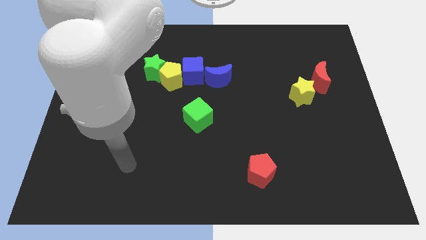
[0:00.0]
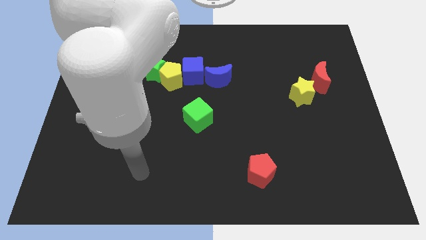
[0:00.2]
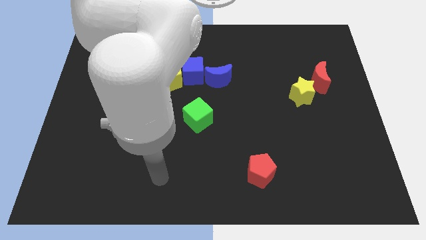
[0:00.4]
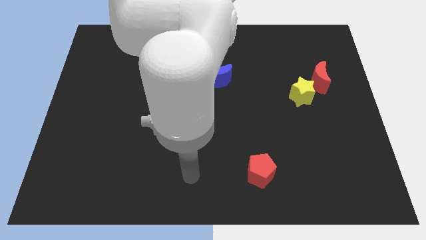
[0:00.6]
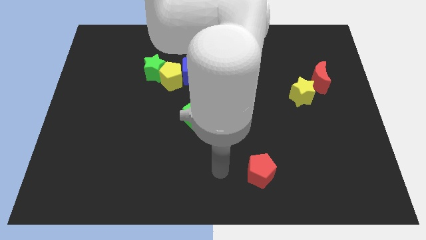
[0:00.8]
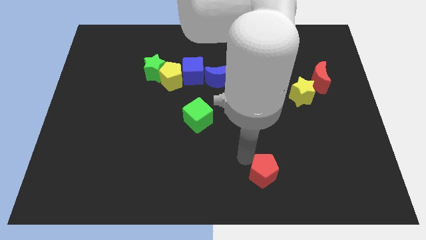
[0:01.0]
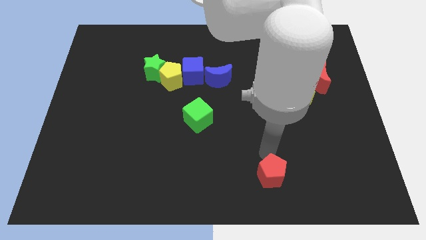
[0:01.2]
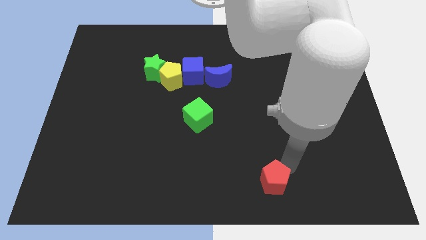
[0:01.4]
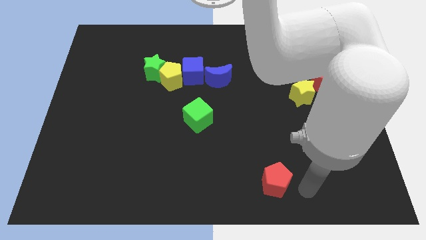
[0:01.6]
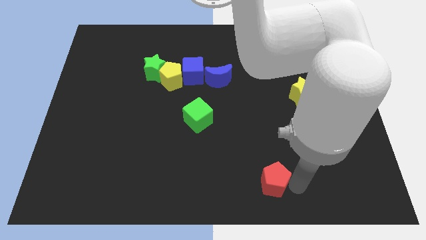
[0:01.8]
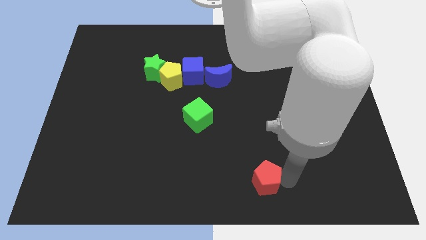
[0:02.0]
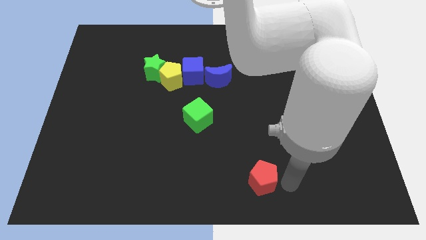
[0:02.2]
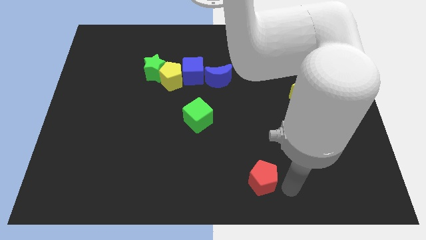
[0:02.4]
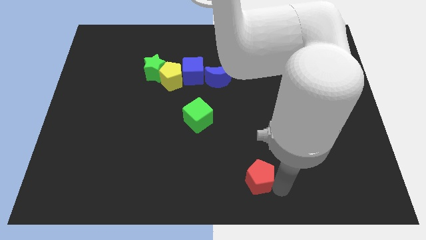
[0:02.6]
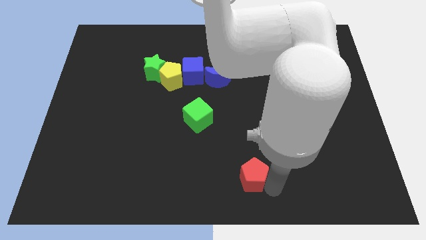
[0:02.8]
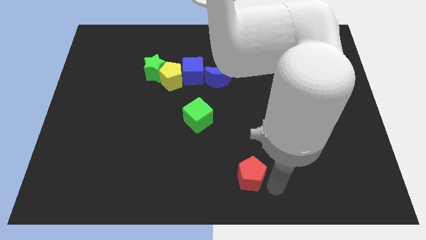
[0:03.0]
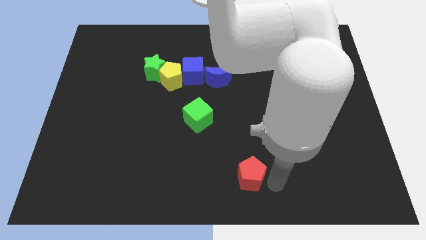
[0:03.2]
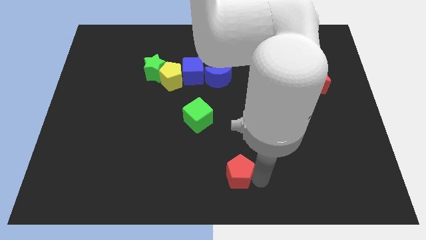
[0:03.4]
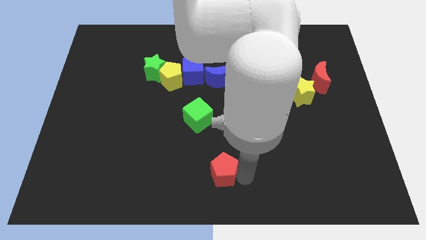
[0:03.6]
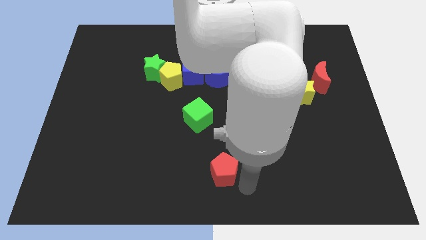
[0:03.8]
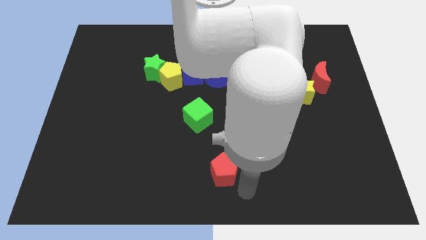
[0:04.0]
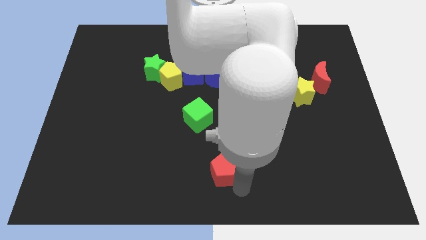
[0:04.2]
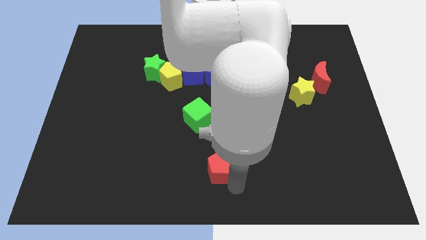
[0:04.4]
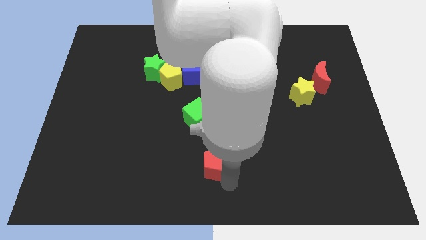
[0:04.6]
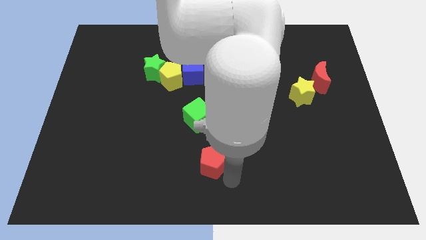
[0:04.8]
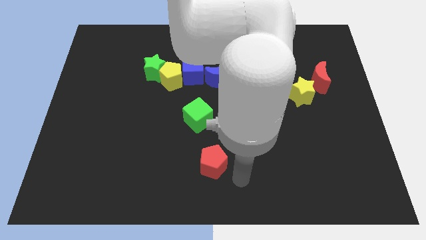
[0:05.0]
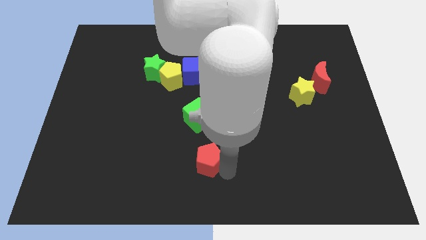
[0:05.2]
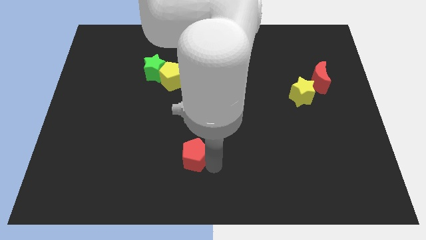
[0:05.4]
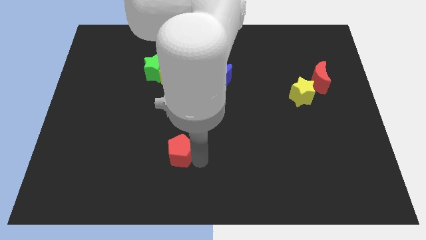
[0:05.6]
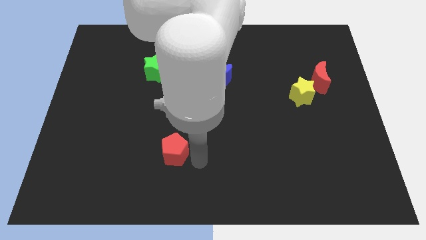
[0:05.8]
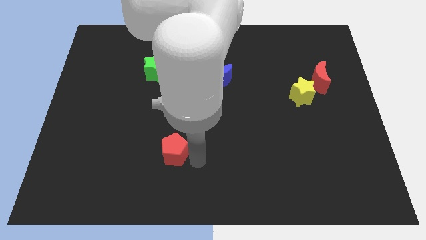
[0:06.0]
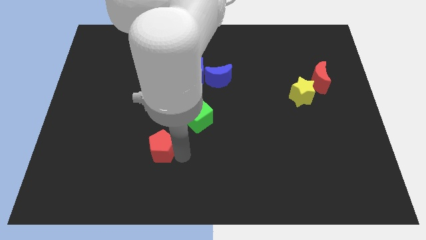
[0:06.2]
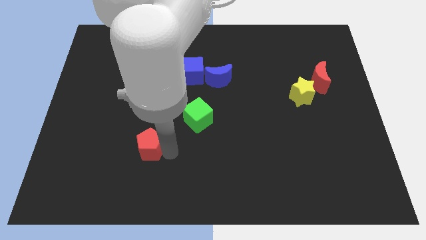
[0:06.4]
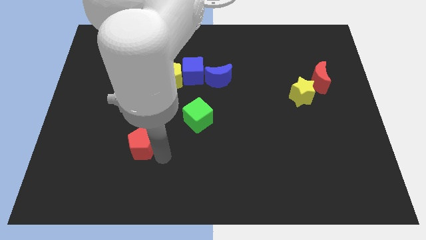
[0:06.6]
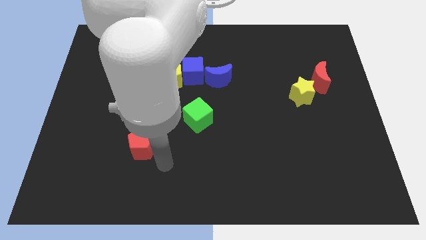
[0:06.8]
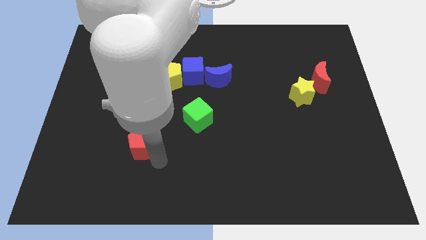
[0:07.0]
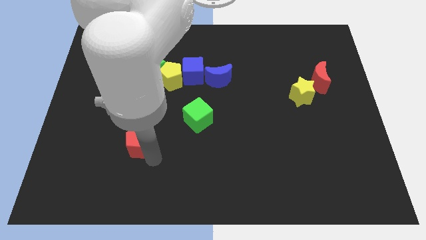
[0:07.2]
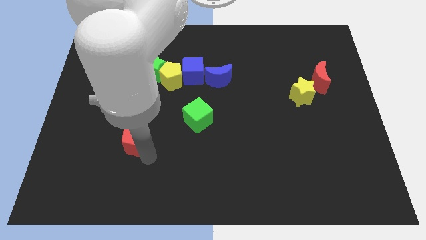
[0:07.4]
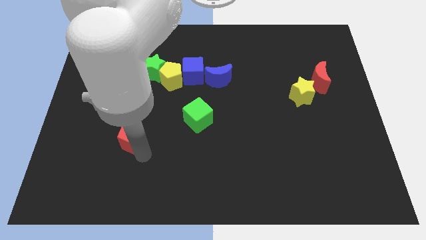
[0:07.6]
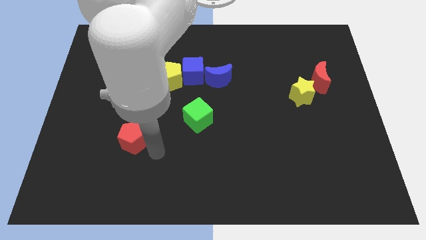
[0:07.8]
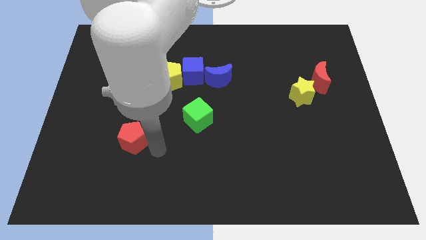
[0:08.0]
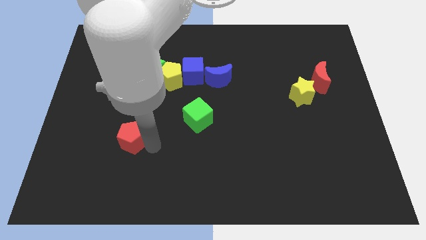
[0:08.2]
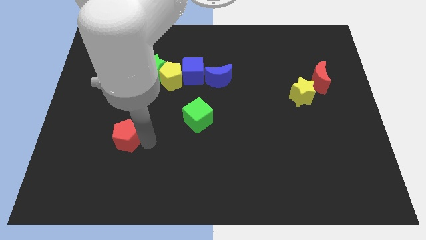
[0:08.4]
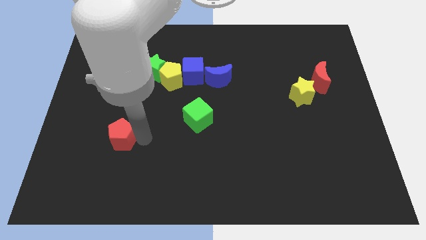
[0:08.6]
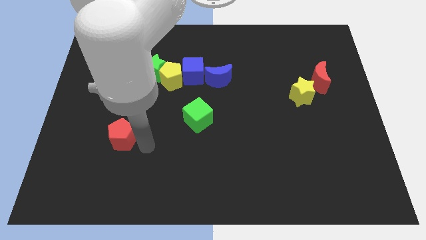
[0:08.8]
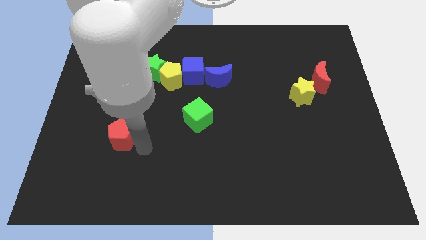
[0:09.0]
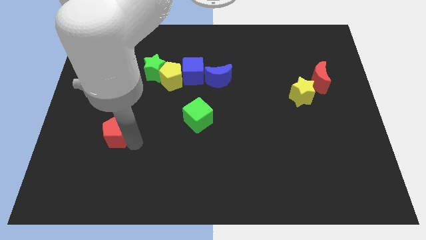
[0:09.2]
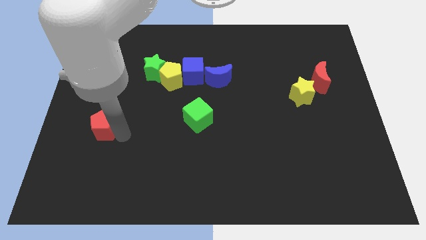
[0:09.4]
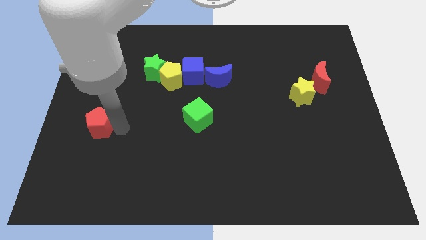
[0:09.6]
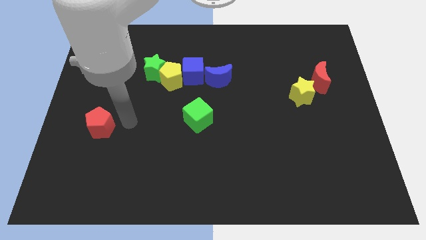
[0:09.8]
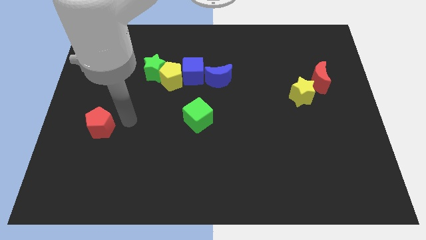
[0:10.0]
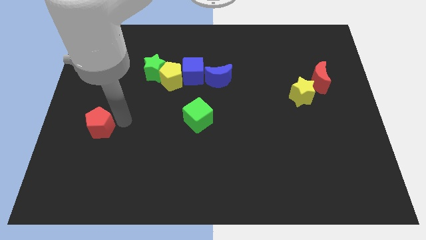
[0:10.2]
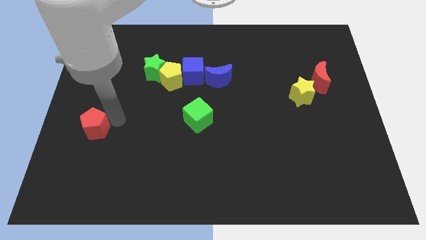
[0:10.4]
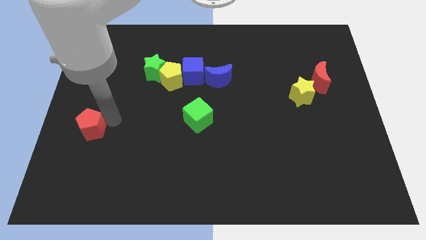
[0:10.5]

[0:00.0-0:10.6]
slide the red pentagon to the center left

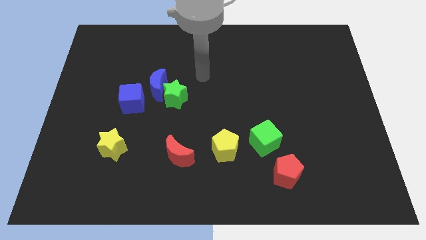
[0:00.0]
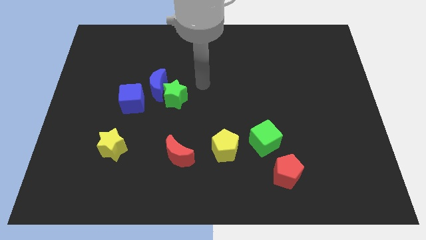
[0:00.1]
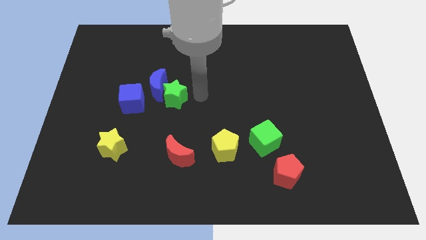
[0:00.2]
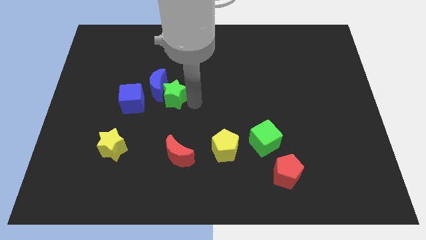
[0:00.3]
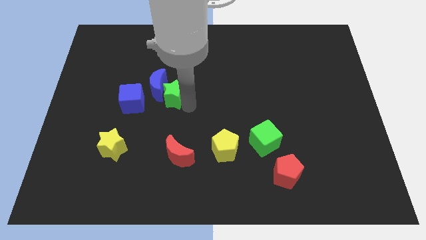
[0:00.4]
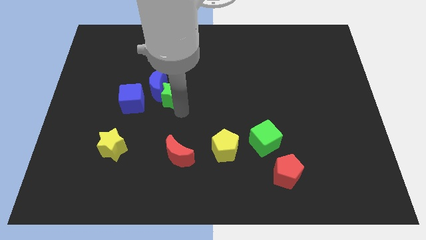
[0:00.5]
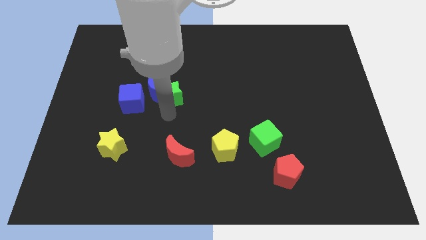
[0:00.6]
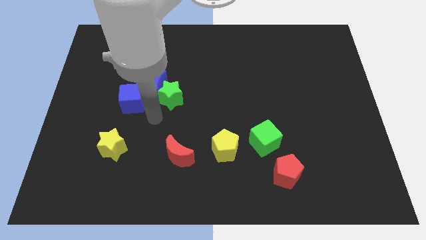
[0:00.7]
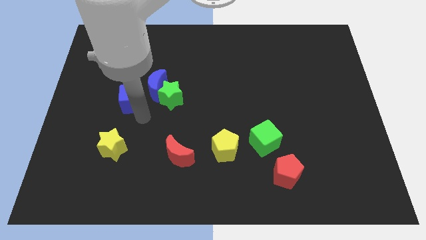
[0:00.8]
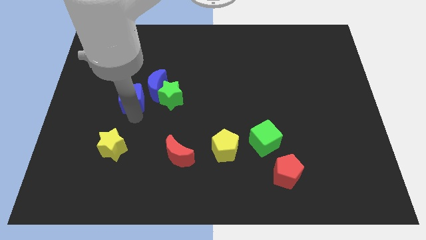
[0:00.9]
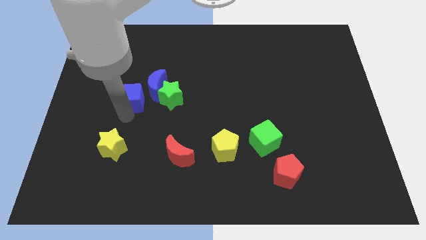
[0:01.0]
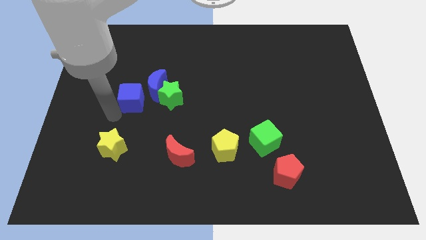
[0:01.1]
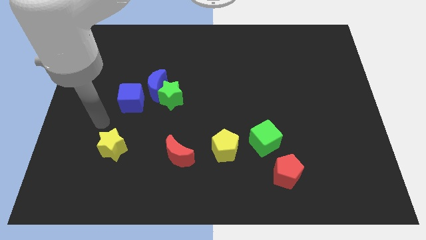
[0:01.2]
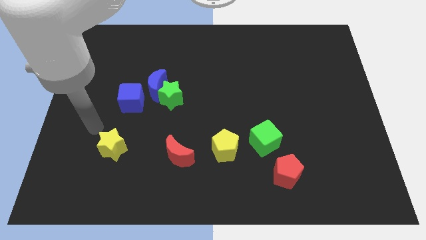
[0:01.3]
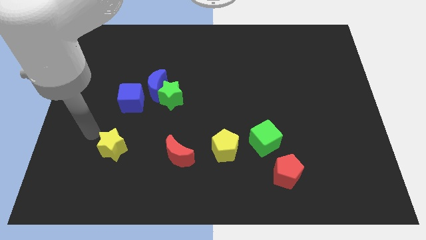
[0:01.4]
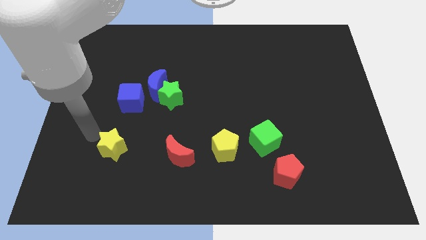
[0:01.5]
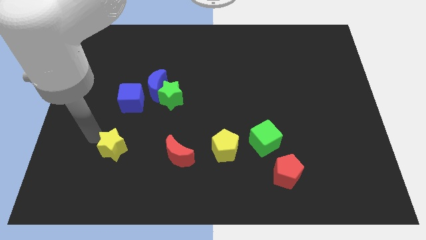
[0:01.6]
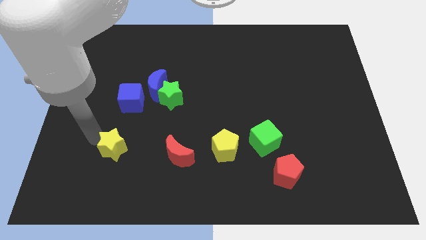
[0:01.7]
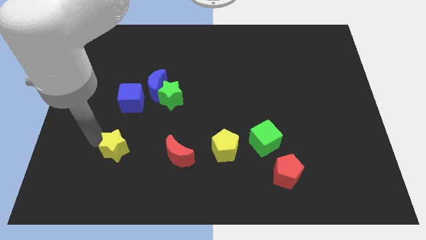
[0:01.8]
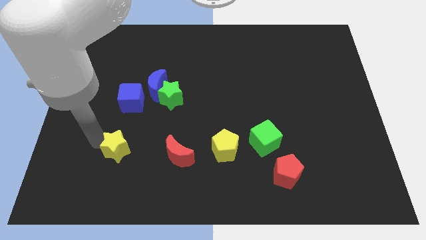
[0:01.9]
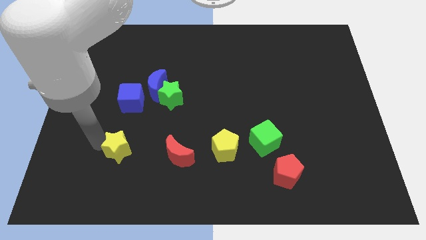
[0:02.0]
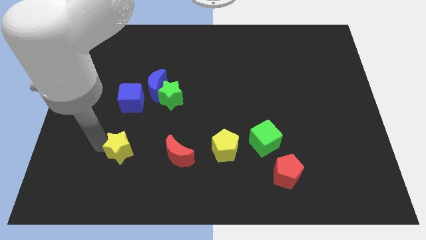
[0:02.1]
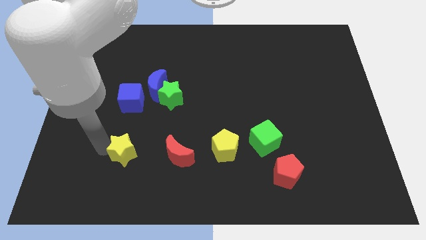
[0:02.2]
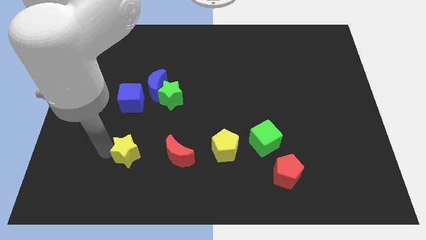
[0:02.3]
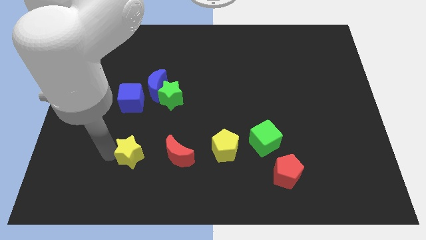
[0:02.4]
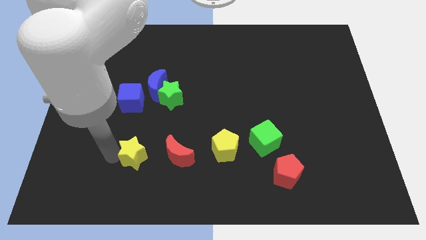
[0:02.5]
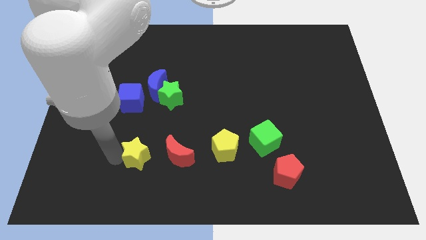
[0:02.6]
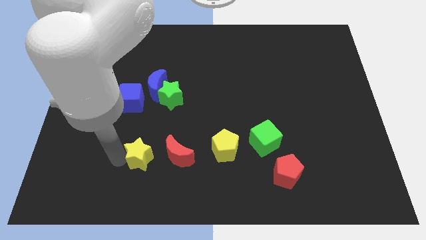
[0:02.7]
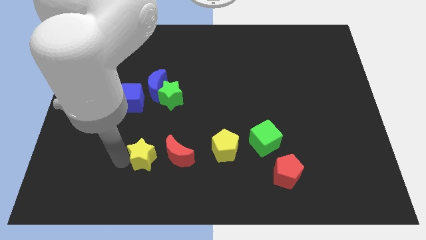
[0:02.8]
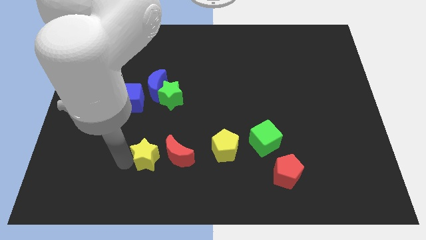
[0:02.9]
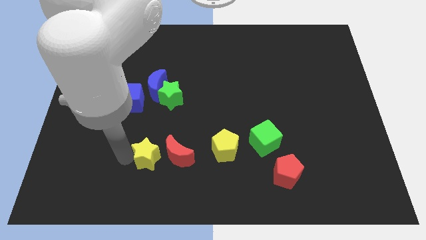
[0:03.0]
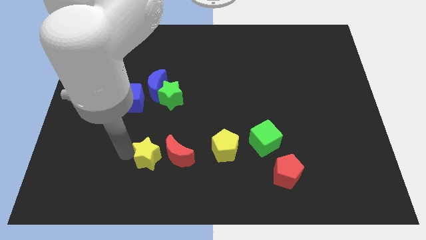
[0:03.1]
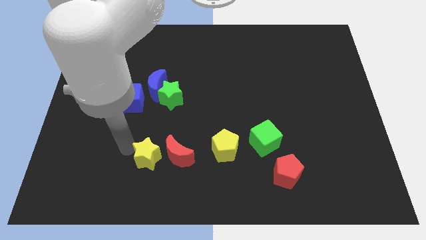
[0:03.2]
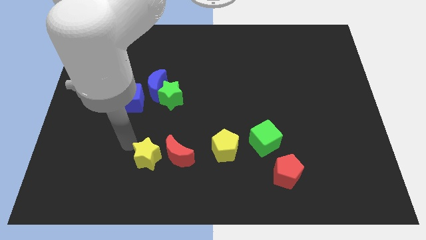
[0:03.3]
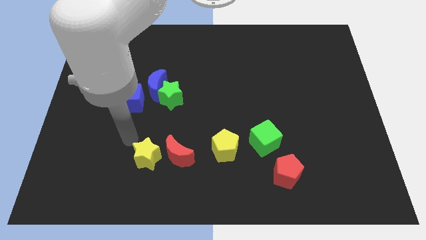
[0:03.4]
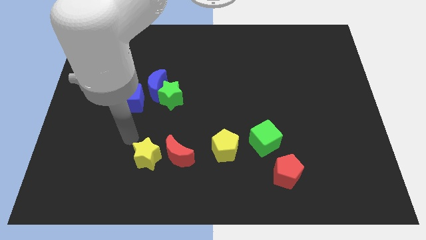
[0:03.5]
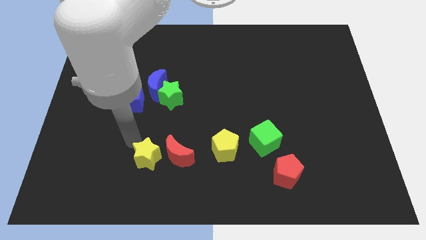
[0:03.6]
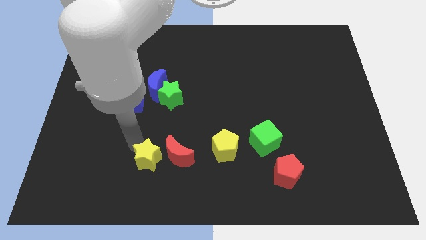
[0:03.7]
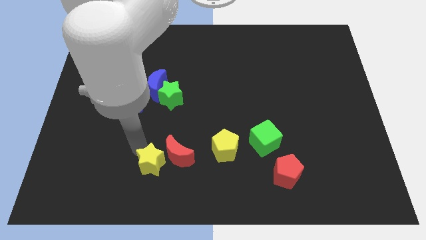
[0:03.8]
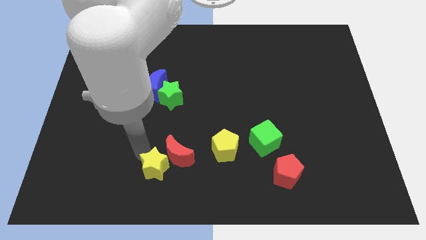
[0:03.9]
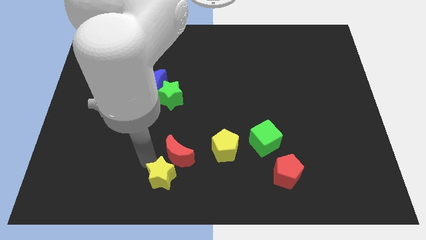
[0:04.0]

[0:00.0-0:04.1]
push the yellow star to the bottom side
